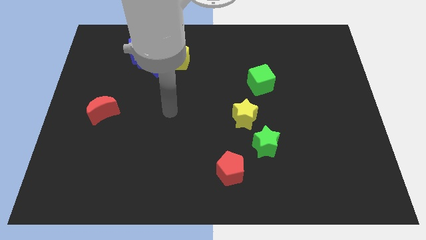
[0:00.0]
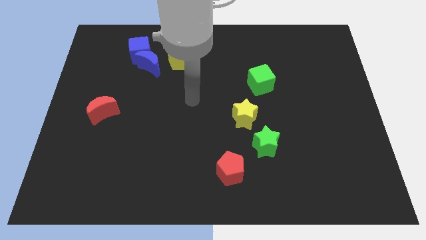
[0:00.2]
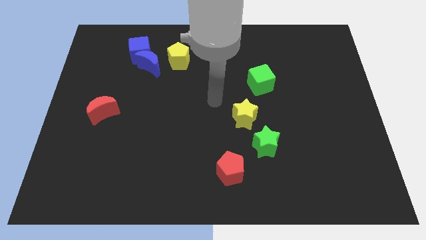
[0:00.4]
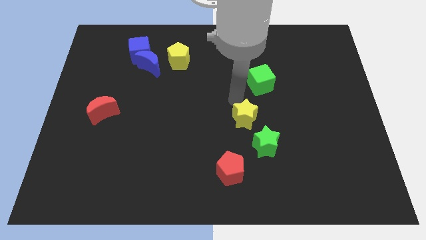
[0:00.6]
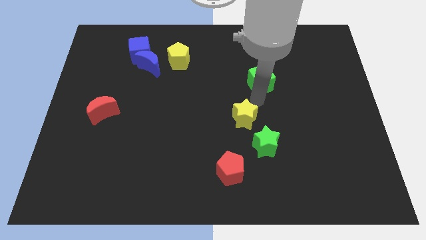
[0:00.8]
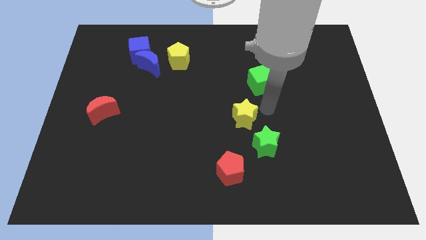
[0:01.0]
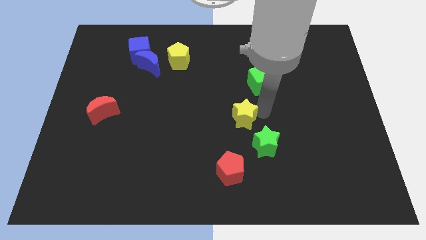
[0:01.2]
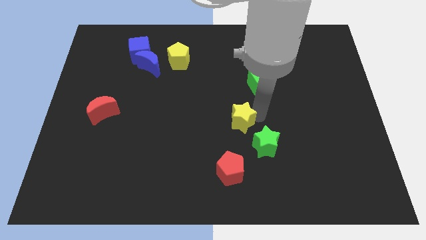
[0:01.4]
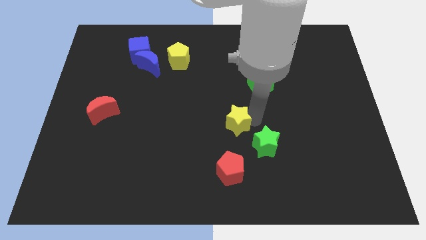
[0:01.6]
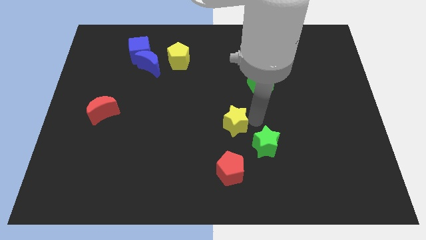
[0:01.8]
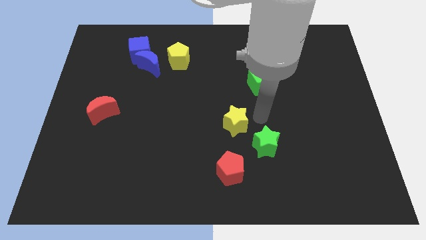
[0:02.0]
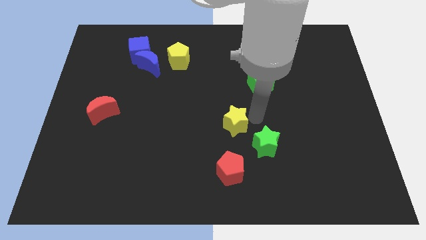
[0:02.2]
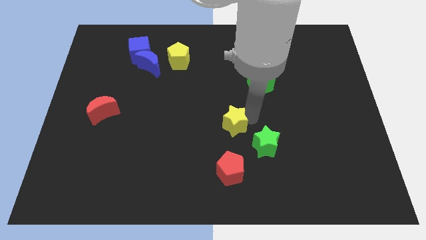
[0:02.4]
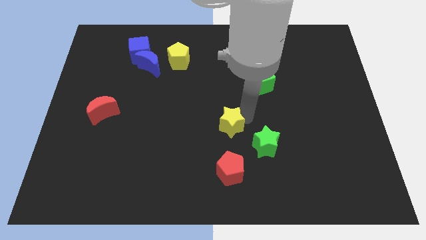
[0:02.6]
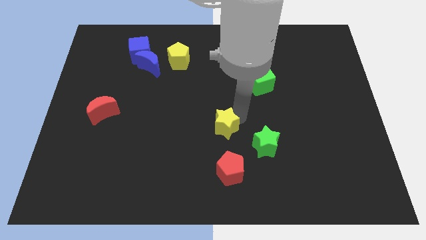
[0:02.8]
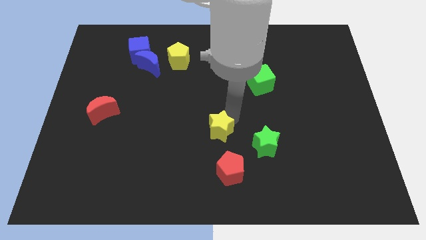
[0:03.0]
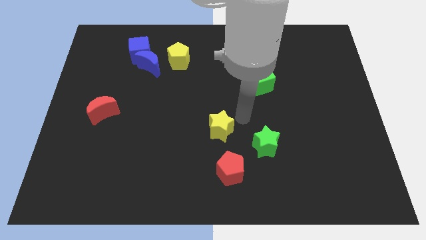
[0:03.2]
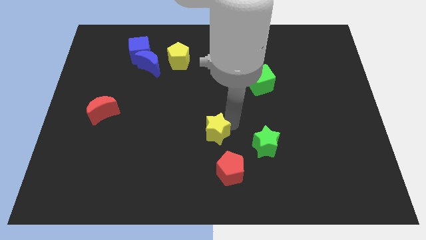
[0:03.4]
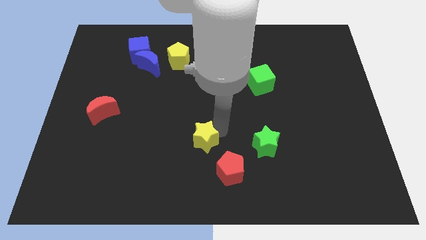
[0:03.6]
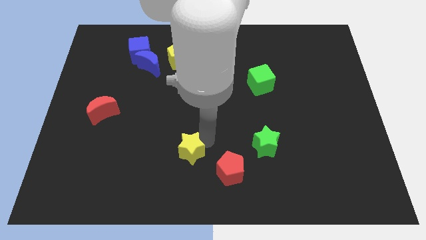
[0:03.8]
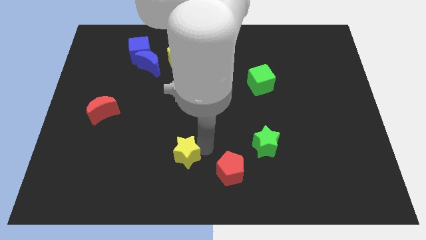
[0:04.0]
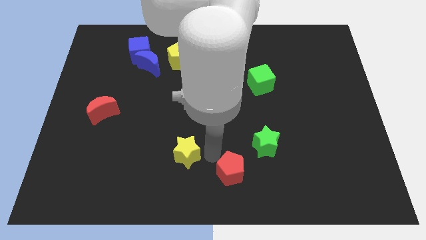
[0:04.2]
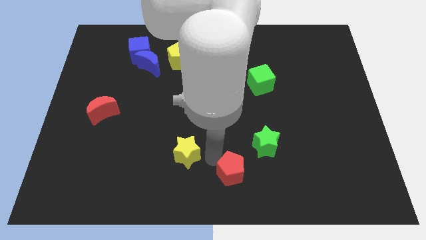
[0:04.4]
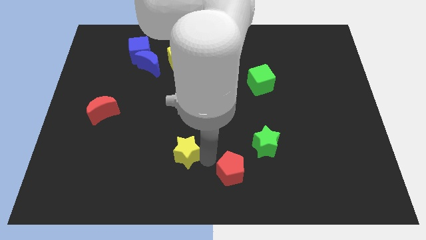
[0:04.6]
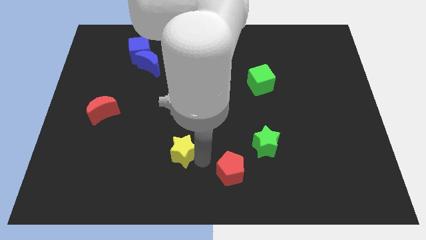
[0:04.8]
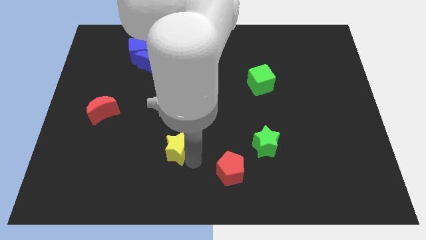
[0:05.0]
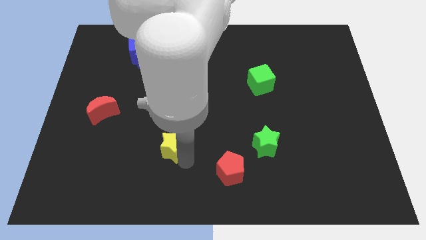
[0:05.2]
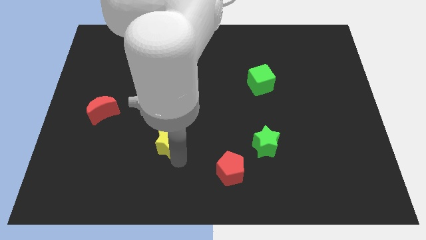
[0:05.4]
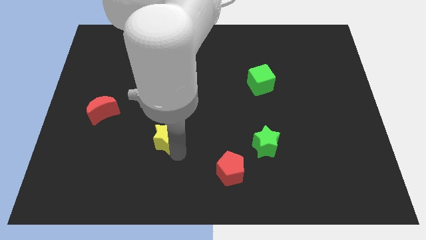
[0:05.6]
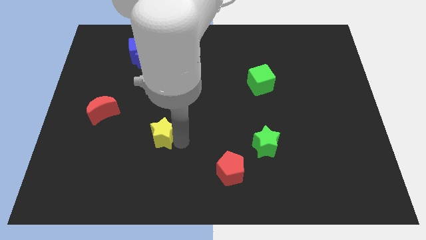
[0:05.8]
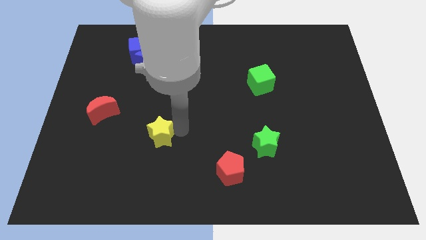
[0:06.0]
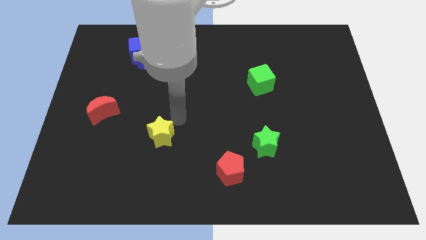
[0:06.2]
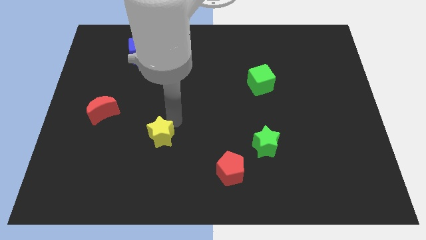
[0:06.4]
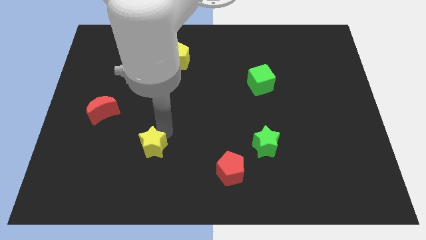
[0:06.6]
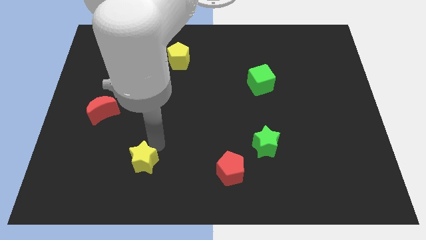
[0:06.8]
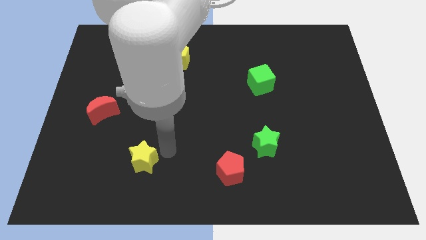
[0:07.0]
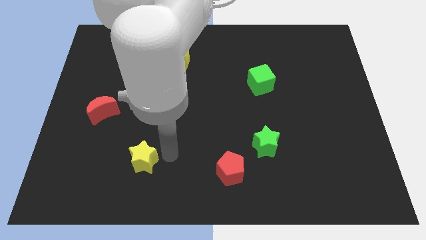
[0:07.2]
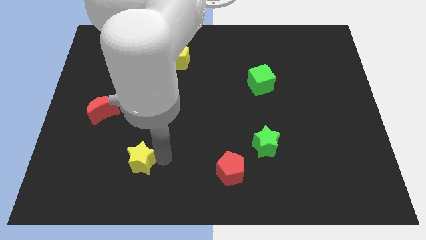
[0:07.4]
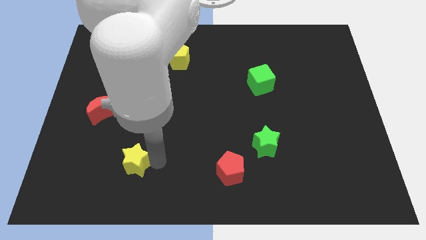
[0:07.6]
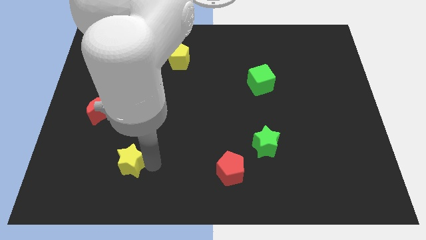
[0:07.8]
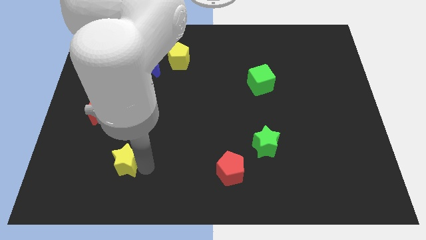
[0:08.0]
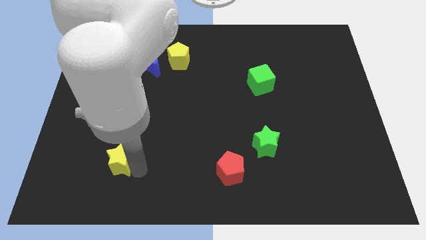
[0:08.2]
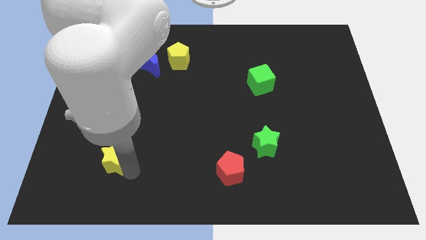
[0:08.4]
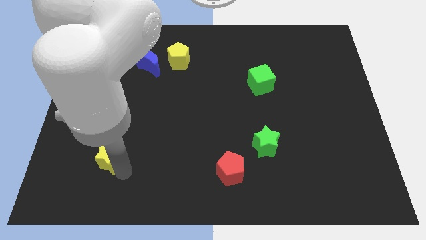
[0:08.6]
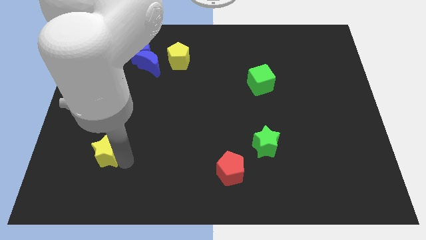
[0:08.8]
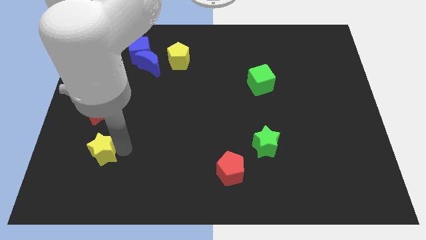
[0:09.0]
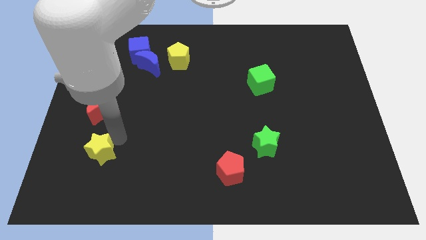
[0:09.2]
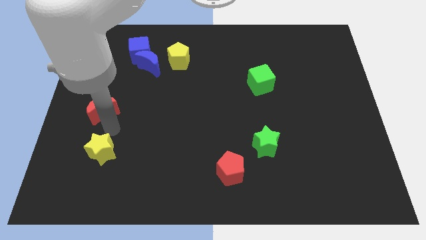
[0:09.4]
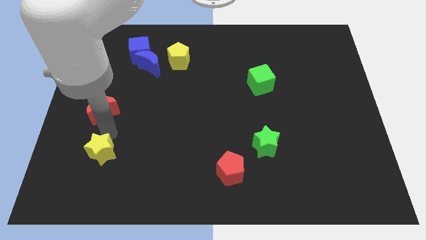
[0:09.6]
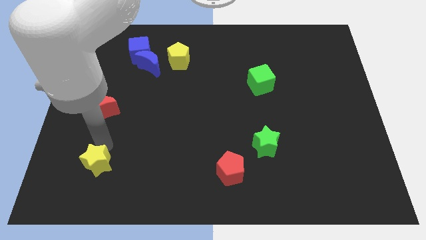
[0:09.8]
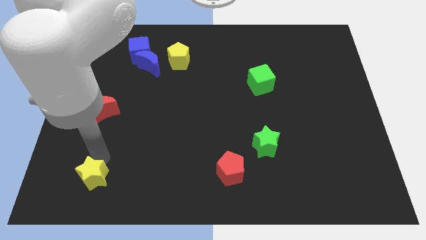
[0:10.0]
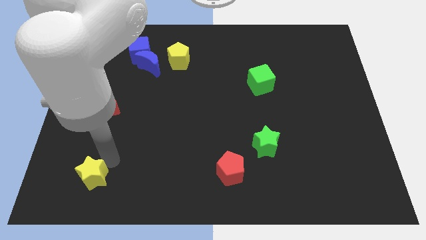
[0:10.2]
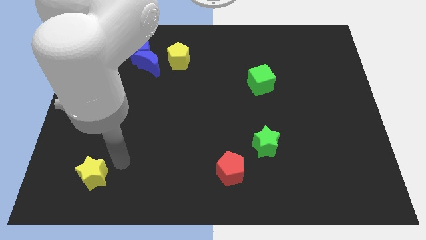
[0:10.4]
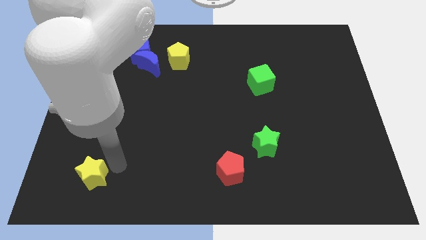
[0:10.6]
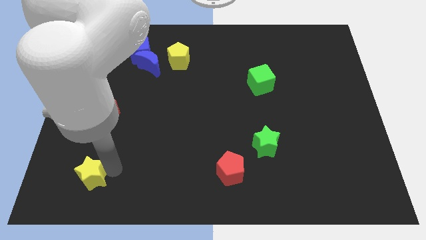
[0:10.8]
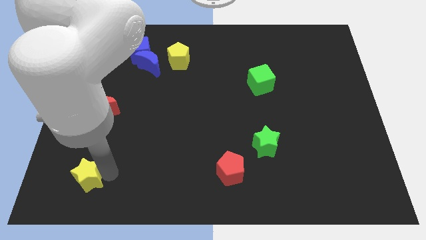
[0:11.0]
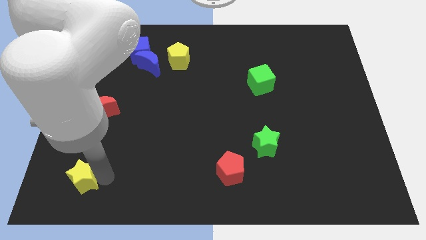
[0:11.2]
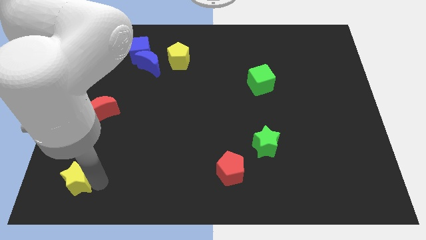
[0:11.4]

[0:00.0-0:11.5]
move the yellow star to the bottom left of the board
